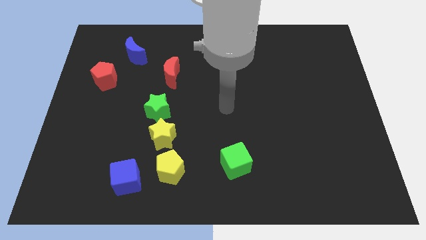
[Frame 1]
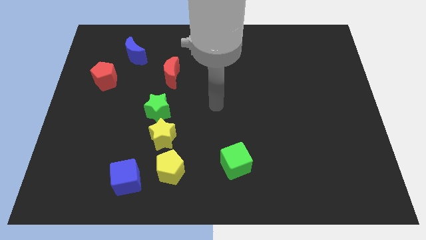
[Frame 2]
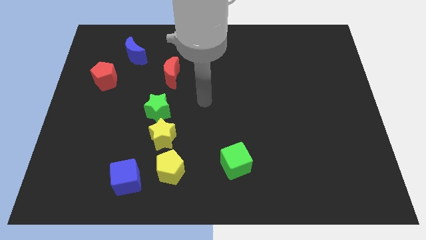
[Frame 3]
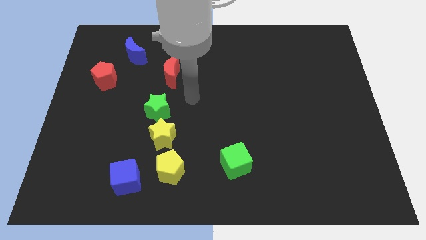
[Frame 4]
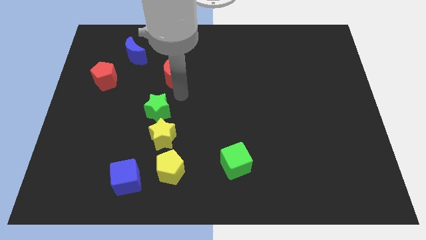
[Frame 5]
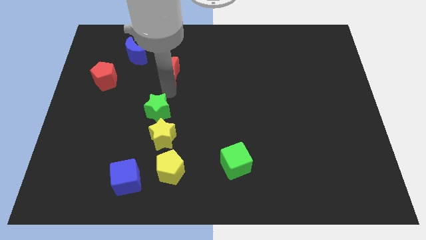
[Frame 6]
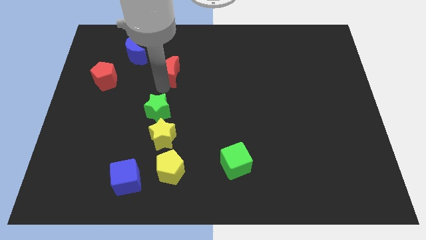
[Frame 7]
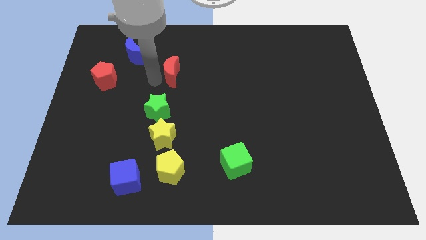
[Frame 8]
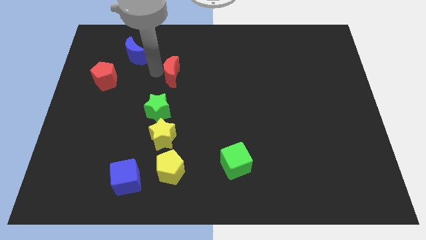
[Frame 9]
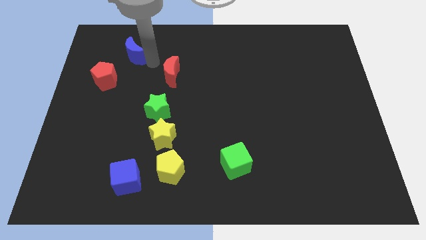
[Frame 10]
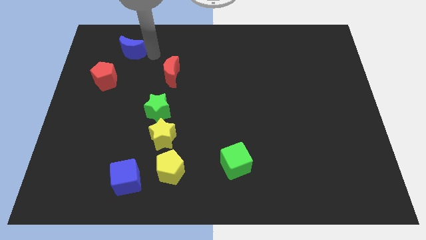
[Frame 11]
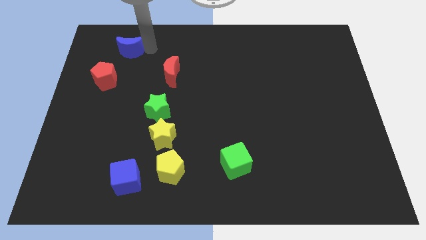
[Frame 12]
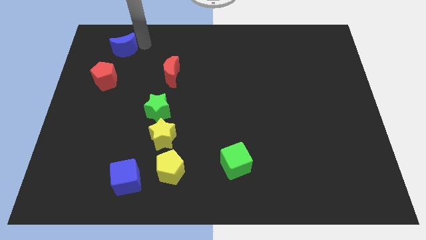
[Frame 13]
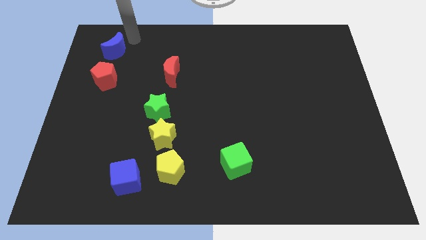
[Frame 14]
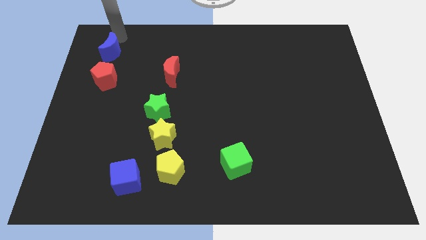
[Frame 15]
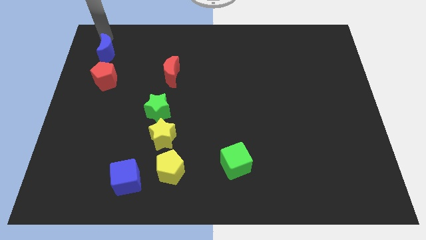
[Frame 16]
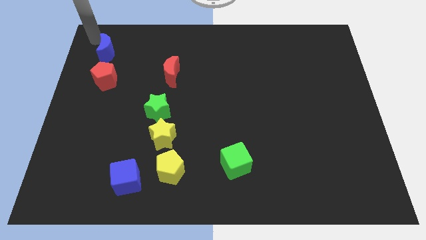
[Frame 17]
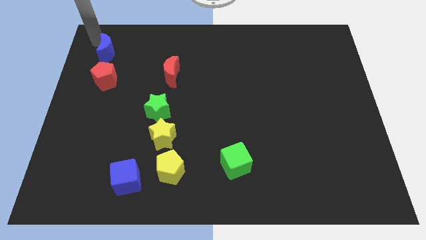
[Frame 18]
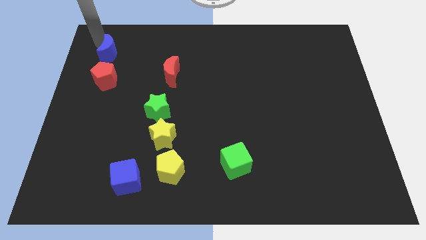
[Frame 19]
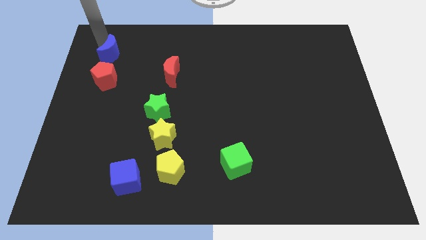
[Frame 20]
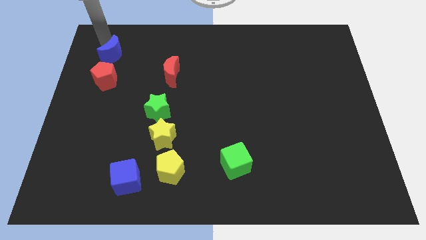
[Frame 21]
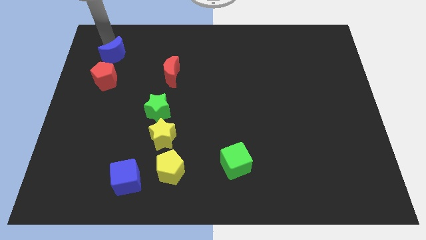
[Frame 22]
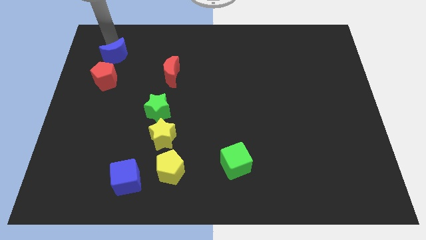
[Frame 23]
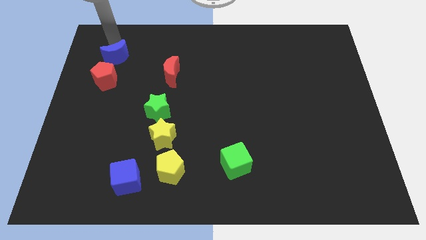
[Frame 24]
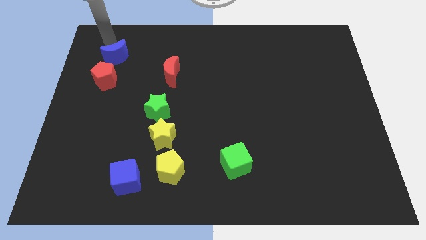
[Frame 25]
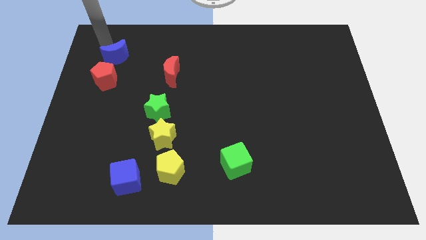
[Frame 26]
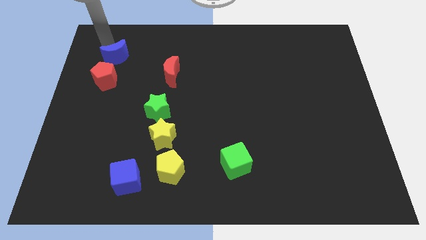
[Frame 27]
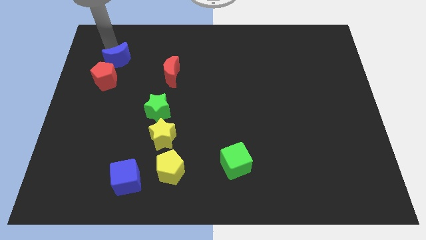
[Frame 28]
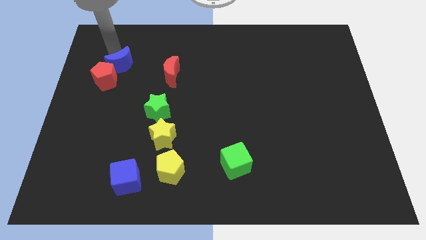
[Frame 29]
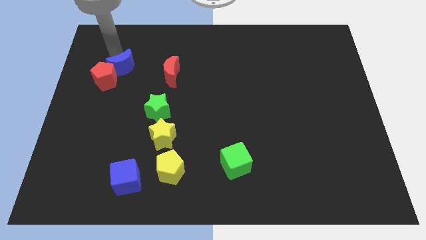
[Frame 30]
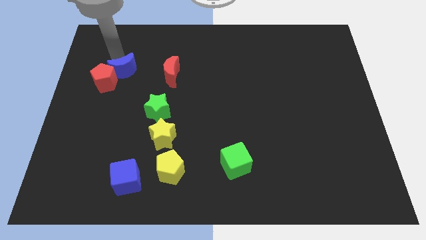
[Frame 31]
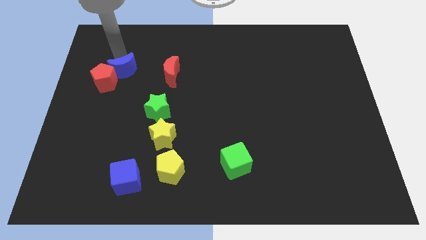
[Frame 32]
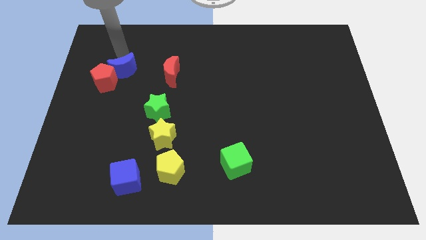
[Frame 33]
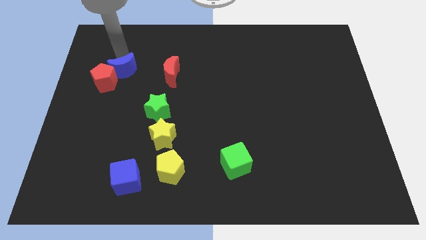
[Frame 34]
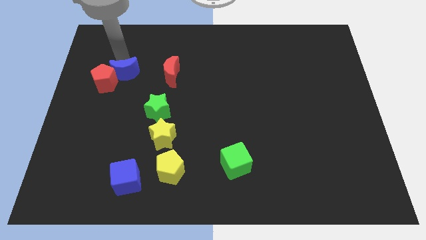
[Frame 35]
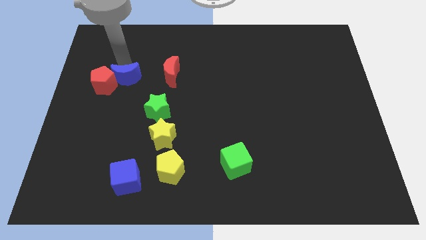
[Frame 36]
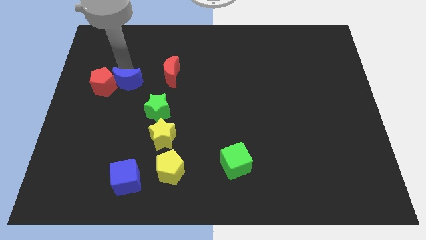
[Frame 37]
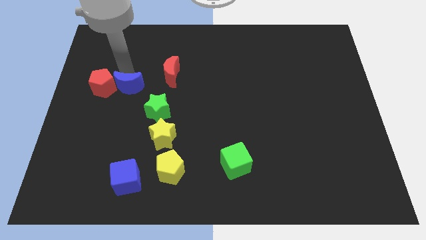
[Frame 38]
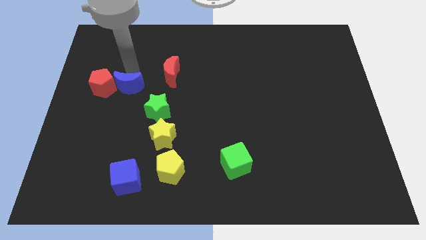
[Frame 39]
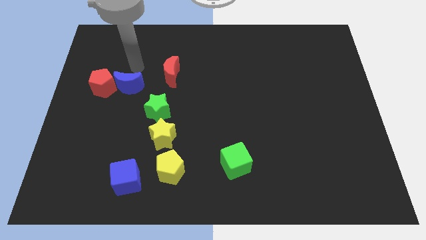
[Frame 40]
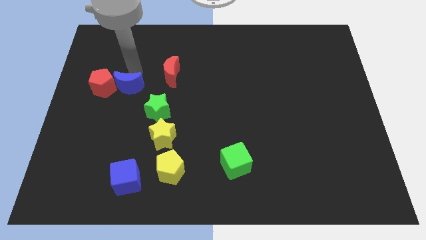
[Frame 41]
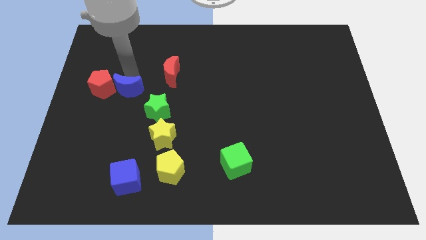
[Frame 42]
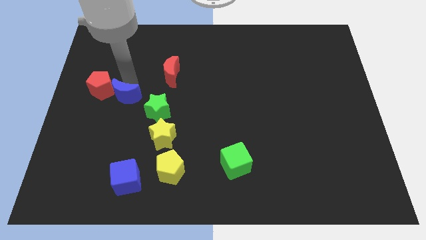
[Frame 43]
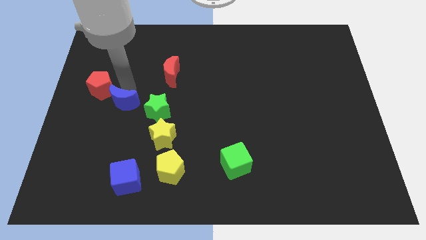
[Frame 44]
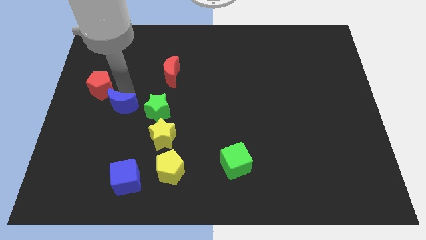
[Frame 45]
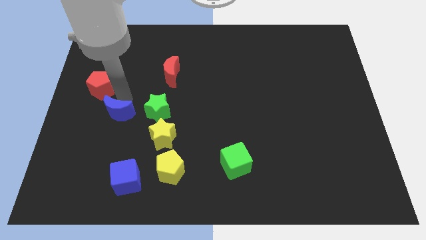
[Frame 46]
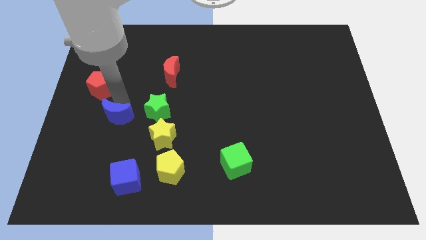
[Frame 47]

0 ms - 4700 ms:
move the blue moon down

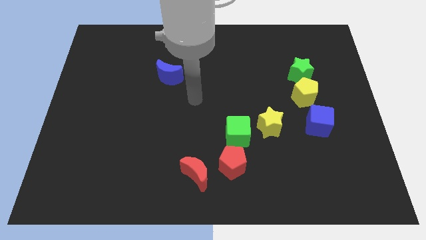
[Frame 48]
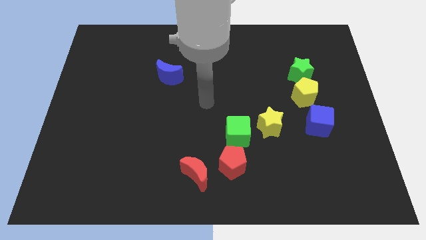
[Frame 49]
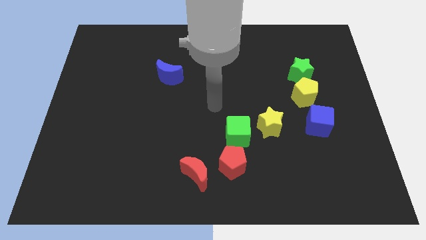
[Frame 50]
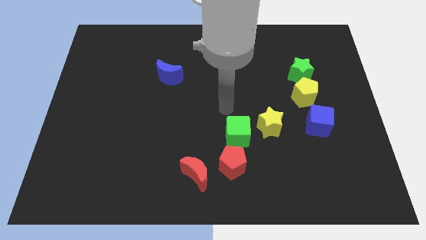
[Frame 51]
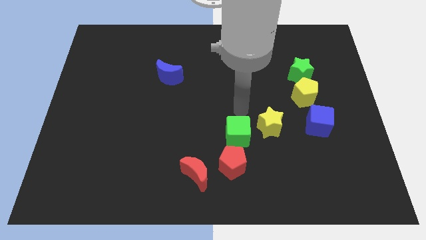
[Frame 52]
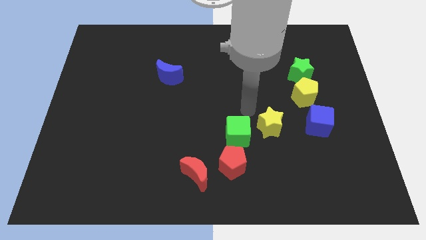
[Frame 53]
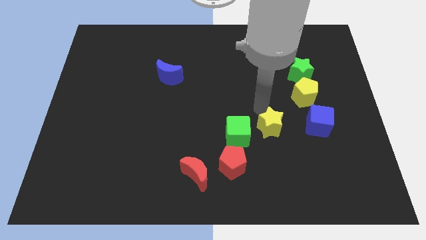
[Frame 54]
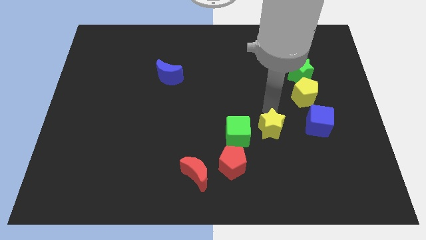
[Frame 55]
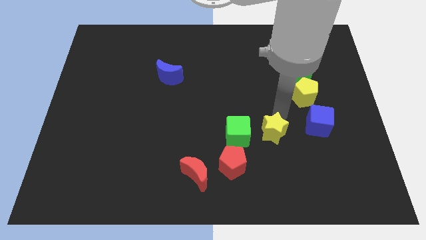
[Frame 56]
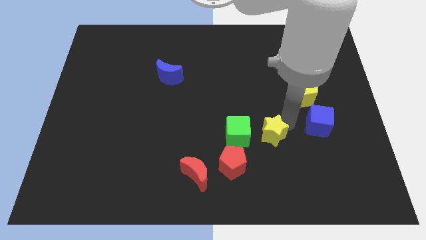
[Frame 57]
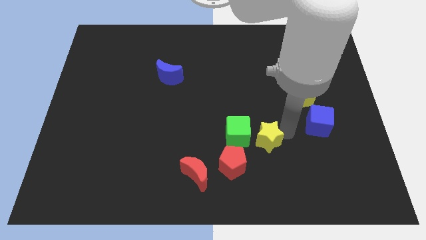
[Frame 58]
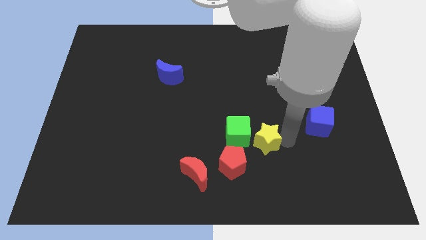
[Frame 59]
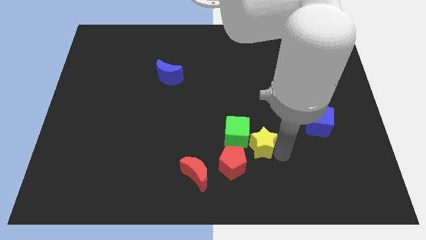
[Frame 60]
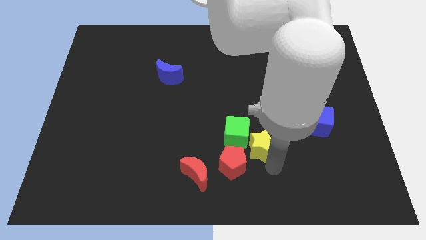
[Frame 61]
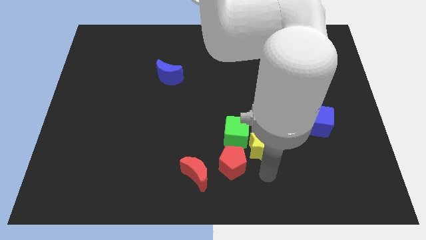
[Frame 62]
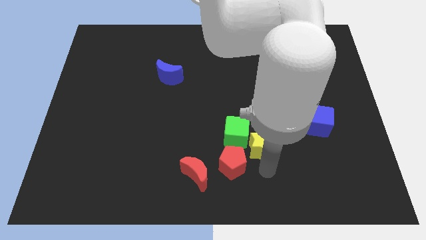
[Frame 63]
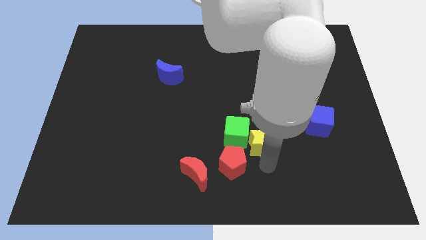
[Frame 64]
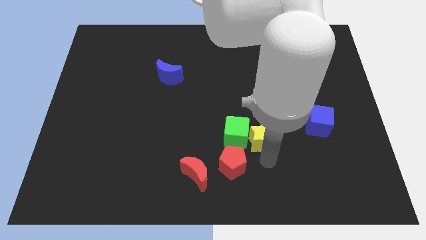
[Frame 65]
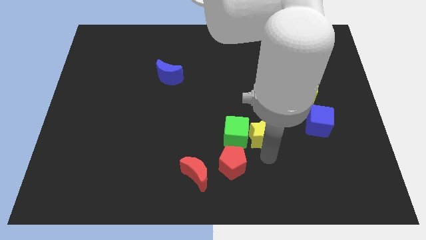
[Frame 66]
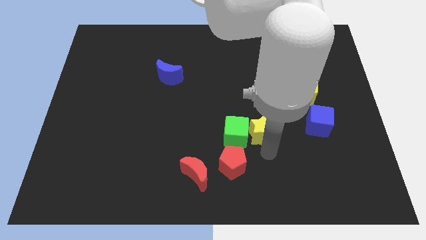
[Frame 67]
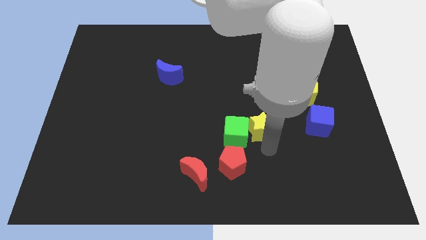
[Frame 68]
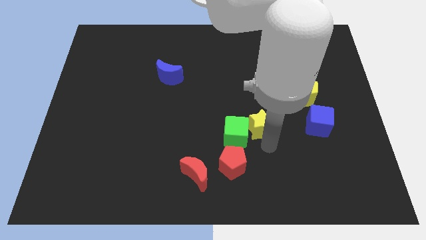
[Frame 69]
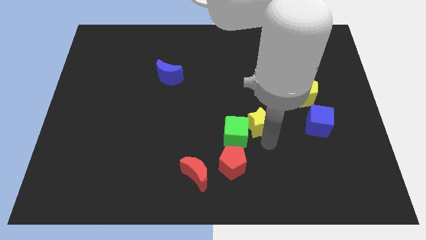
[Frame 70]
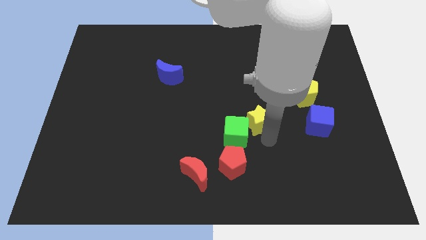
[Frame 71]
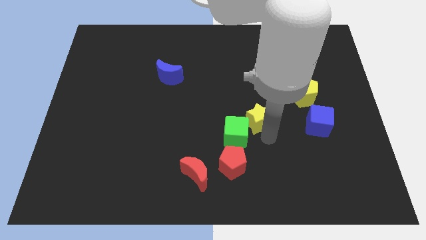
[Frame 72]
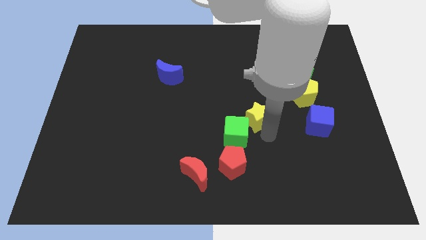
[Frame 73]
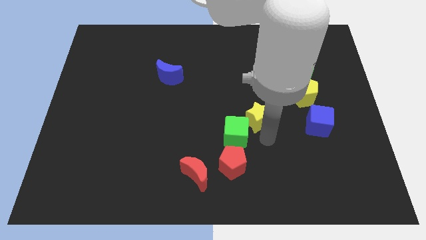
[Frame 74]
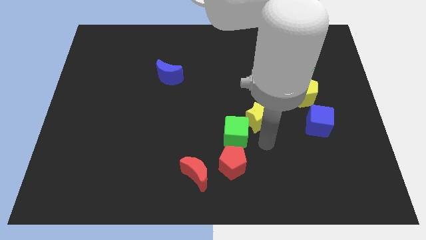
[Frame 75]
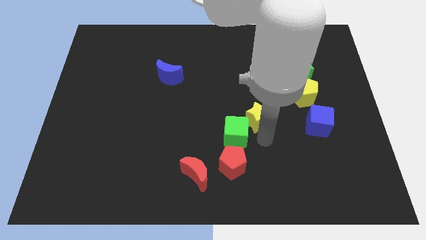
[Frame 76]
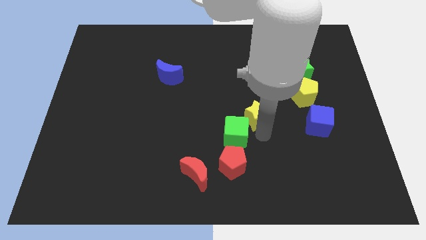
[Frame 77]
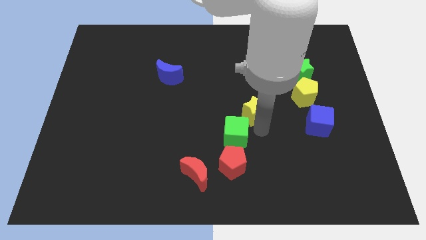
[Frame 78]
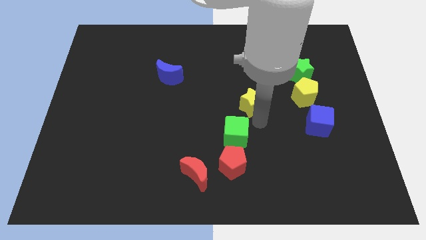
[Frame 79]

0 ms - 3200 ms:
slightly slide the yellow star up and left diagonally
